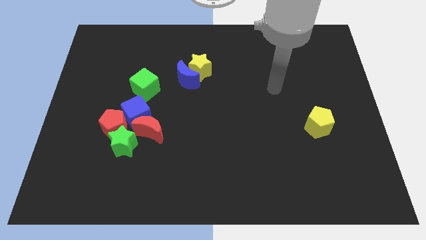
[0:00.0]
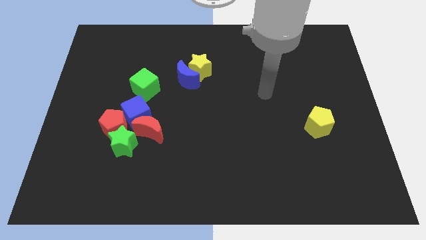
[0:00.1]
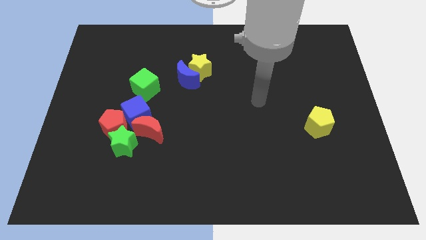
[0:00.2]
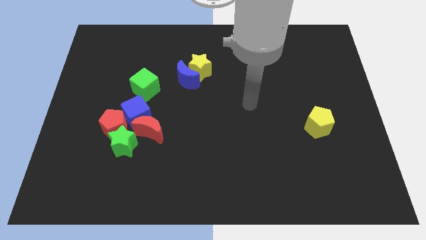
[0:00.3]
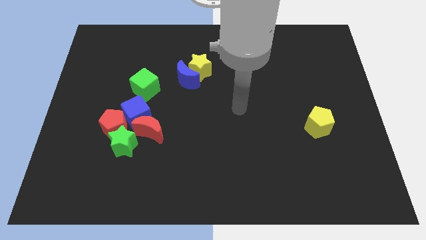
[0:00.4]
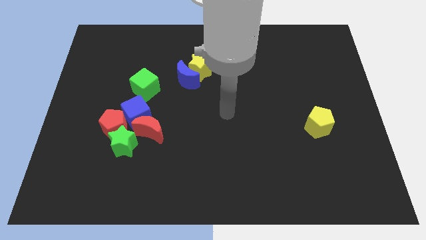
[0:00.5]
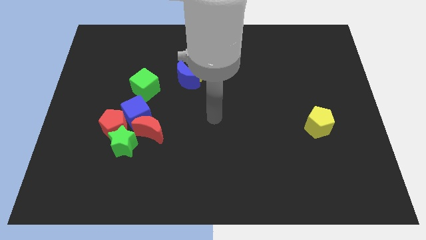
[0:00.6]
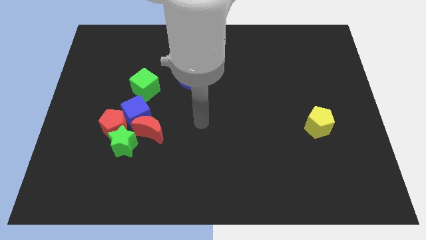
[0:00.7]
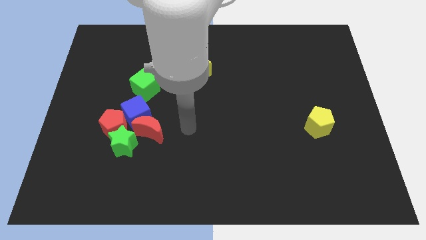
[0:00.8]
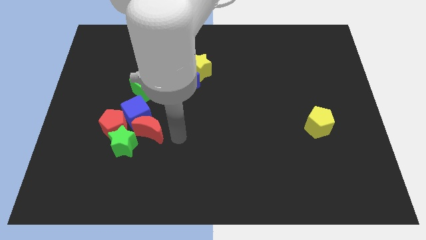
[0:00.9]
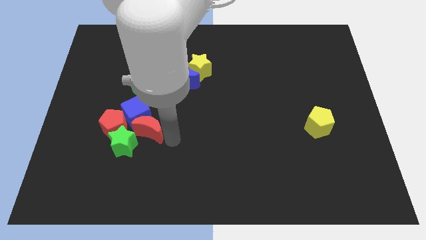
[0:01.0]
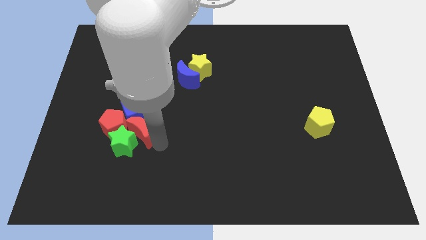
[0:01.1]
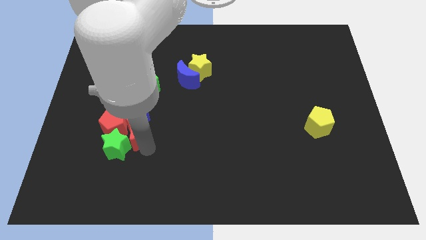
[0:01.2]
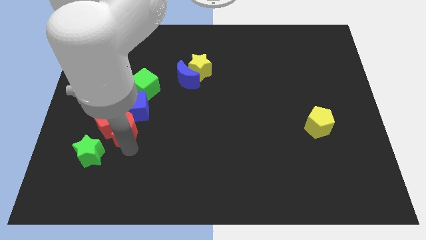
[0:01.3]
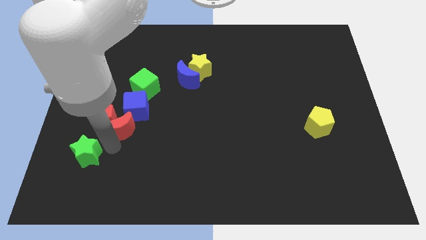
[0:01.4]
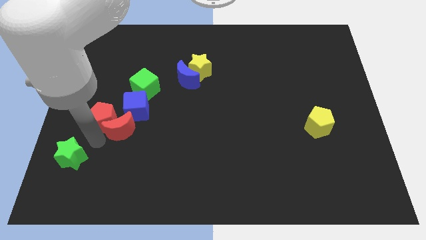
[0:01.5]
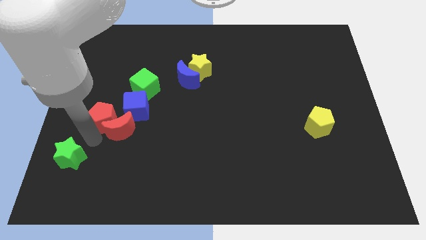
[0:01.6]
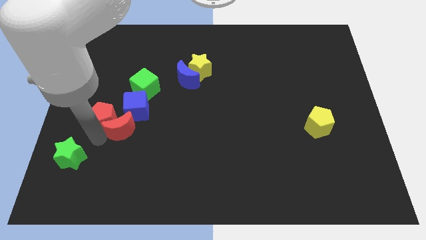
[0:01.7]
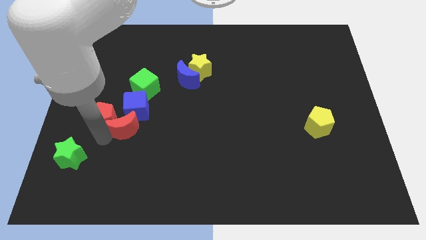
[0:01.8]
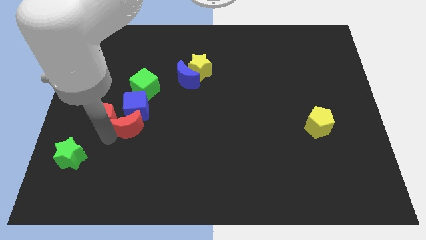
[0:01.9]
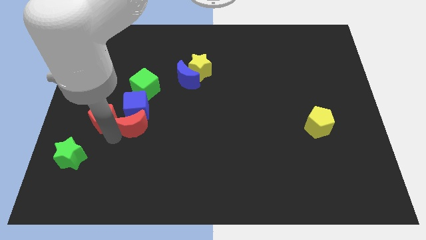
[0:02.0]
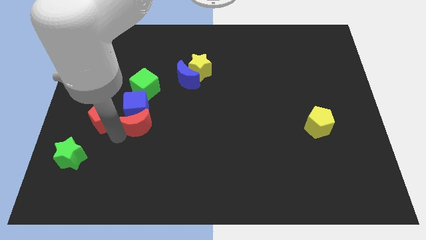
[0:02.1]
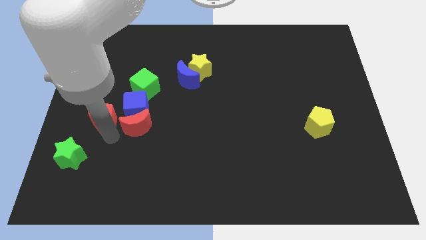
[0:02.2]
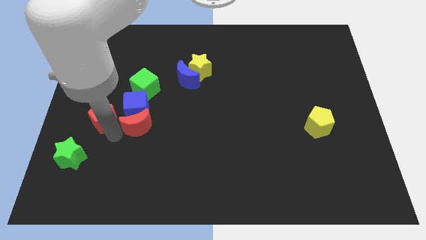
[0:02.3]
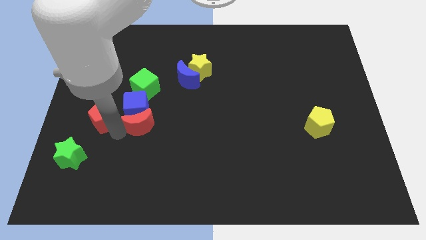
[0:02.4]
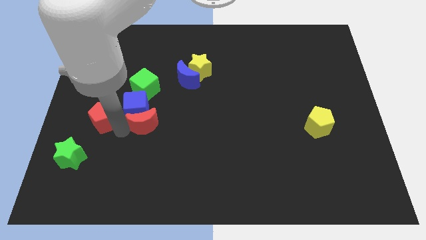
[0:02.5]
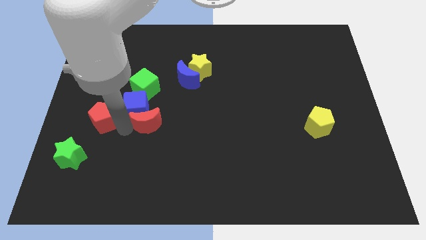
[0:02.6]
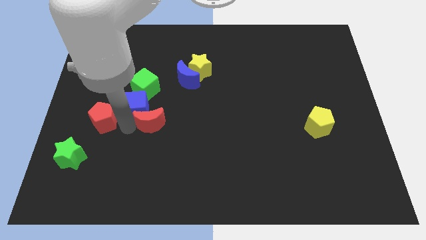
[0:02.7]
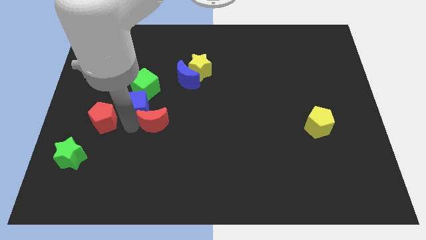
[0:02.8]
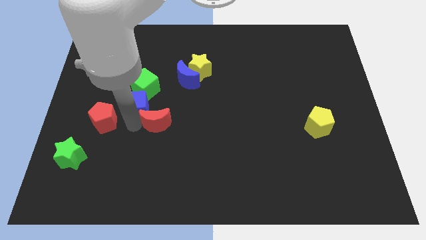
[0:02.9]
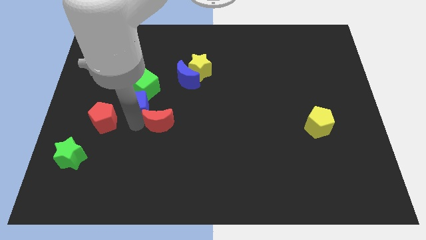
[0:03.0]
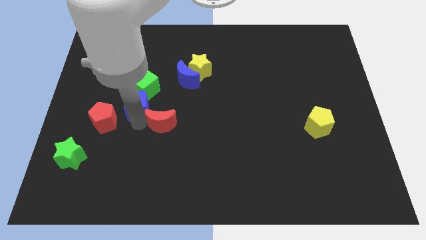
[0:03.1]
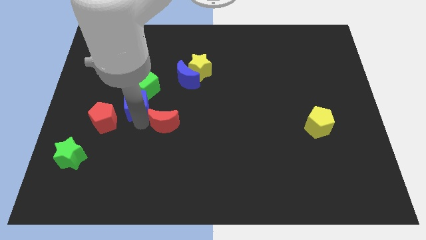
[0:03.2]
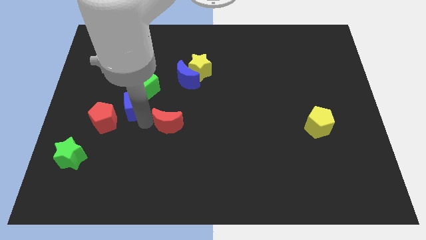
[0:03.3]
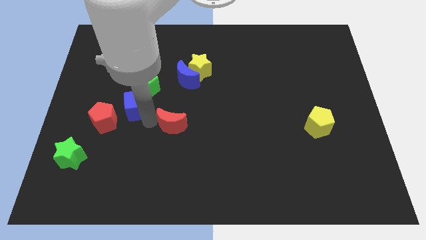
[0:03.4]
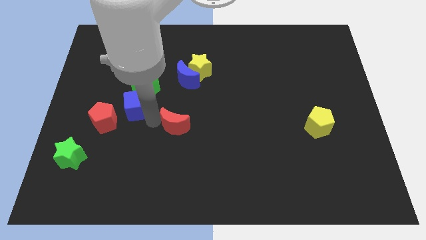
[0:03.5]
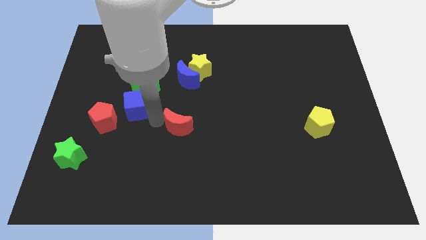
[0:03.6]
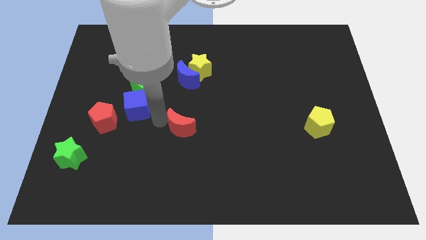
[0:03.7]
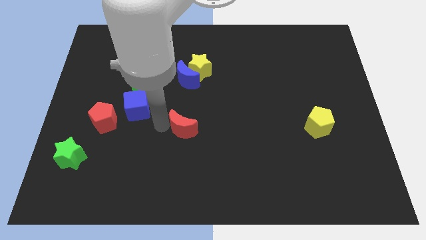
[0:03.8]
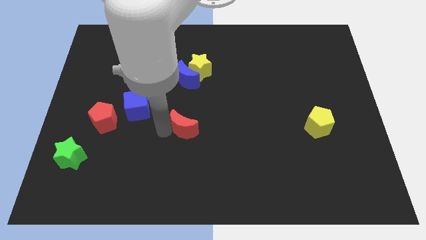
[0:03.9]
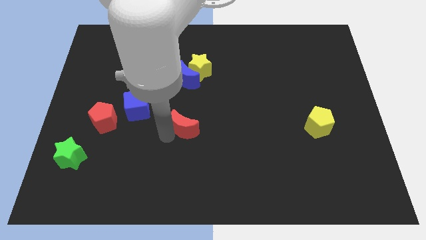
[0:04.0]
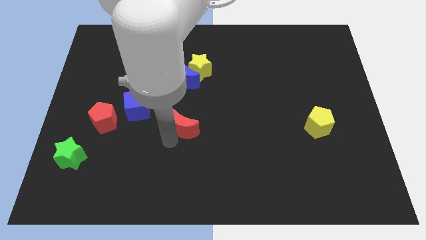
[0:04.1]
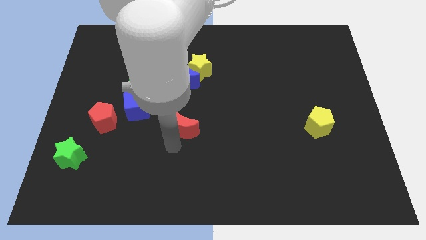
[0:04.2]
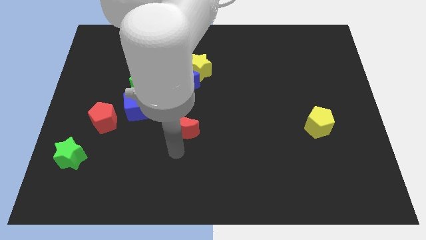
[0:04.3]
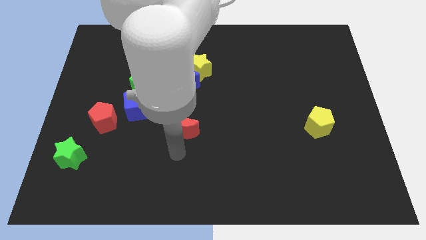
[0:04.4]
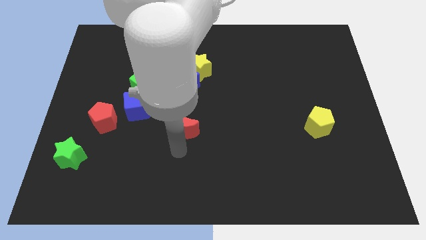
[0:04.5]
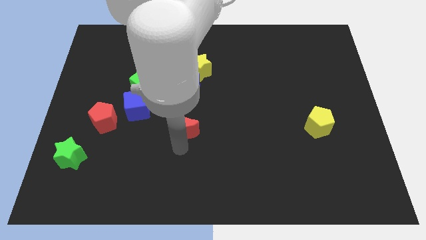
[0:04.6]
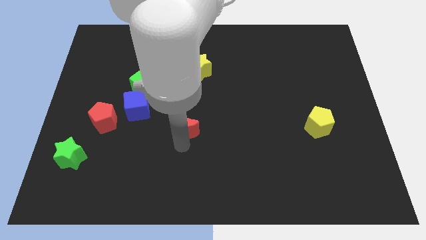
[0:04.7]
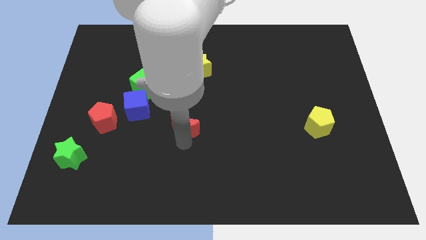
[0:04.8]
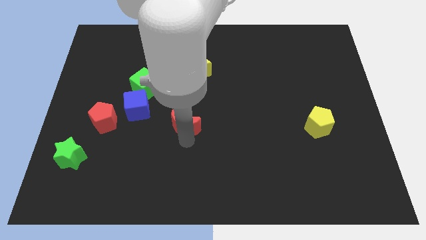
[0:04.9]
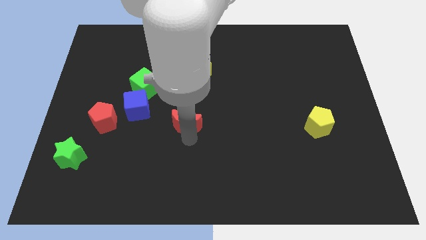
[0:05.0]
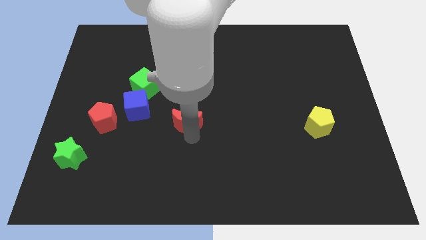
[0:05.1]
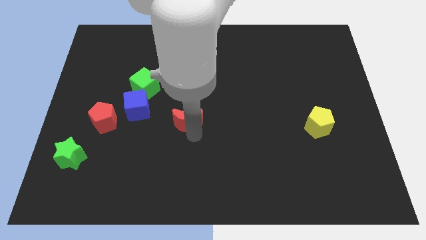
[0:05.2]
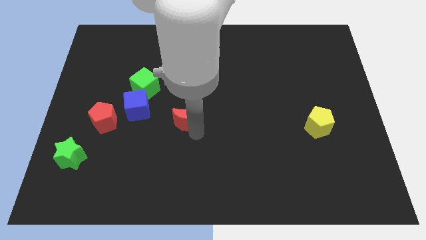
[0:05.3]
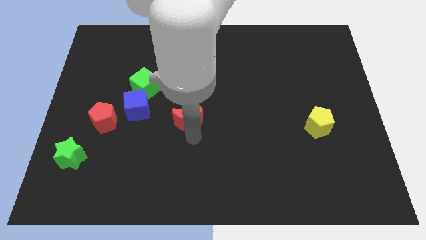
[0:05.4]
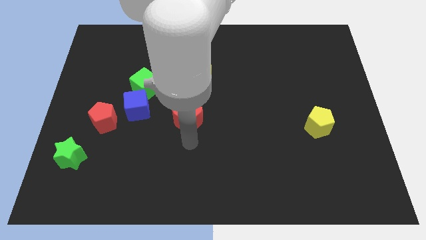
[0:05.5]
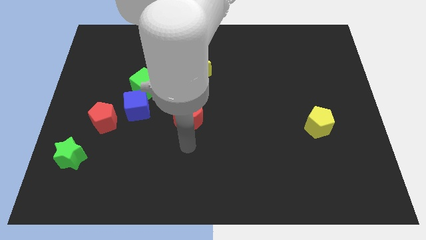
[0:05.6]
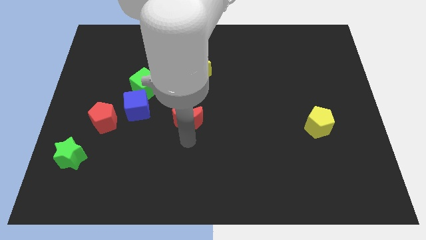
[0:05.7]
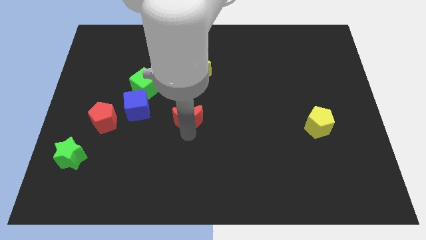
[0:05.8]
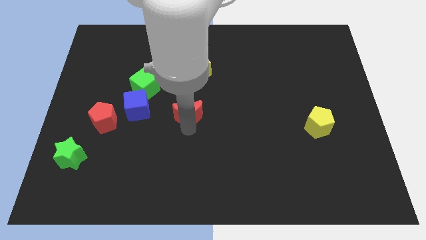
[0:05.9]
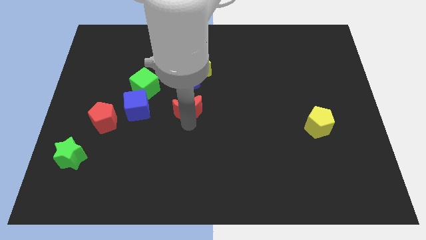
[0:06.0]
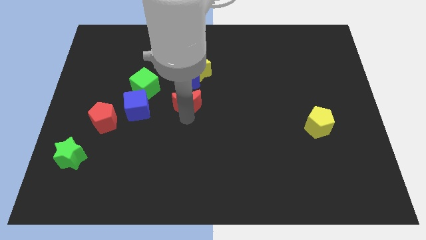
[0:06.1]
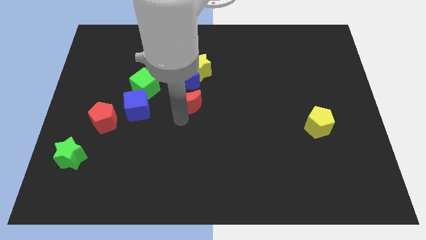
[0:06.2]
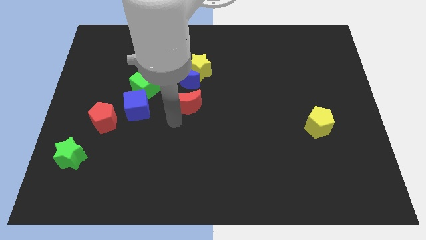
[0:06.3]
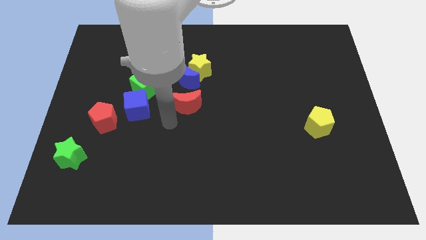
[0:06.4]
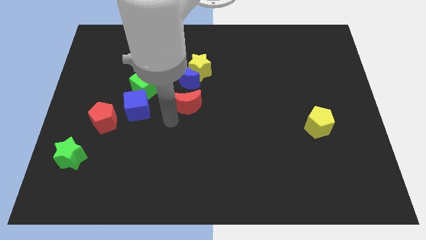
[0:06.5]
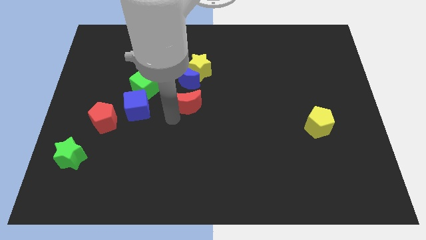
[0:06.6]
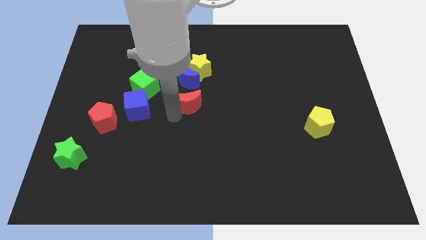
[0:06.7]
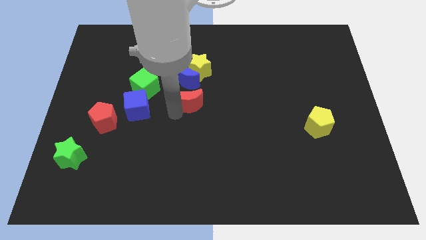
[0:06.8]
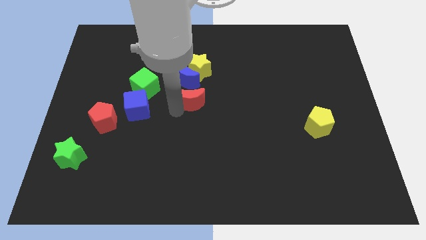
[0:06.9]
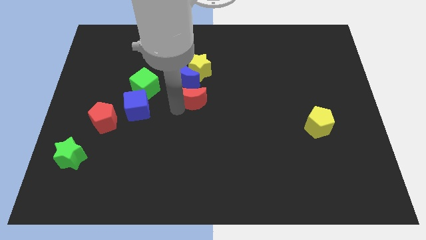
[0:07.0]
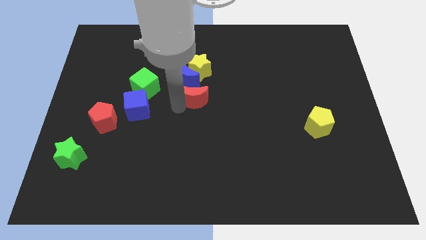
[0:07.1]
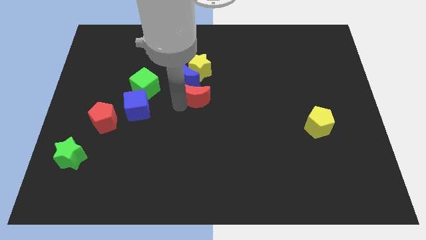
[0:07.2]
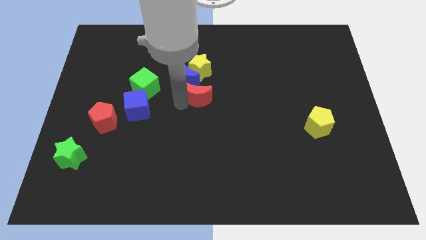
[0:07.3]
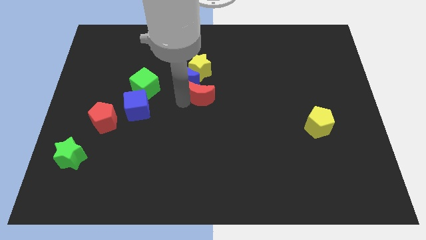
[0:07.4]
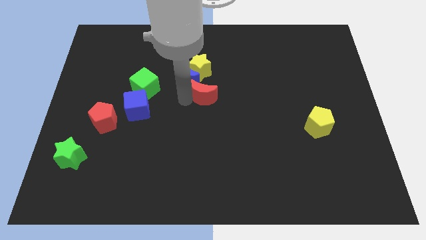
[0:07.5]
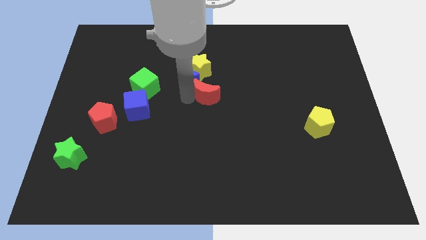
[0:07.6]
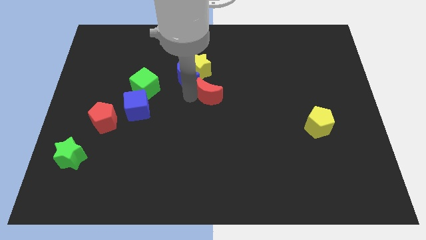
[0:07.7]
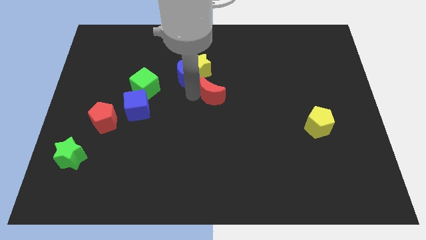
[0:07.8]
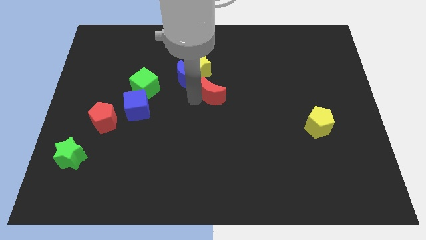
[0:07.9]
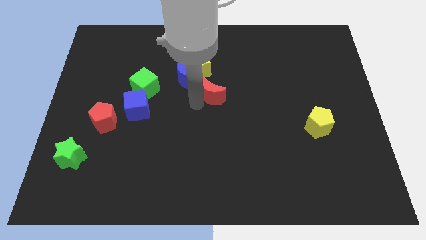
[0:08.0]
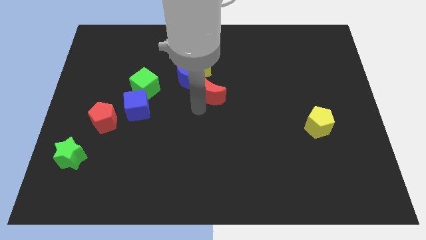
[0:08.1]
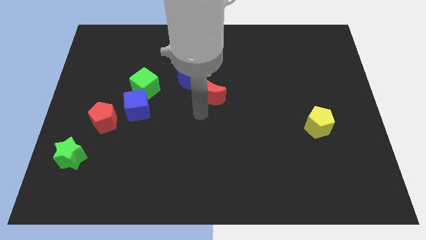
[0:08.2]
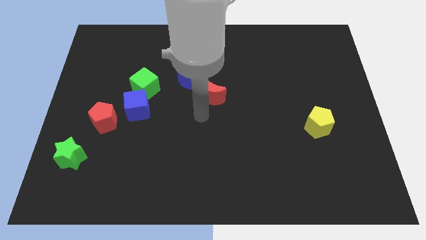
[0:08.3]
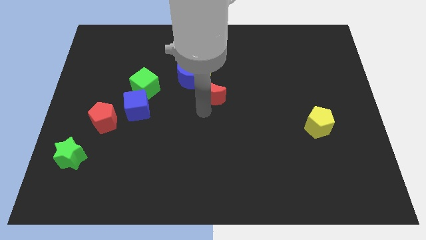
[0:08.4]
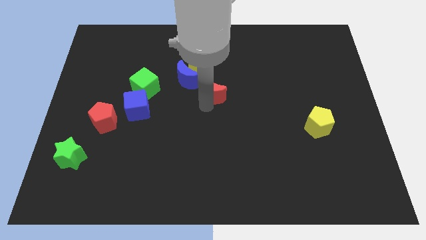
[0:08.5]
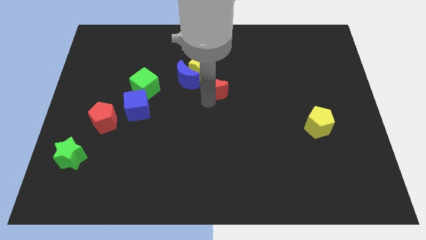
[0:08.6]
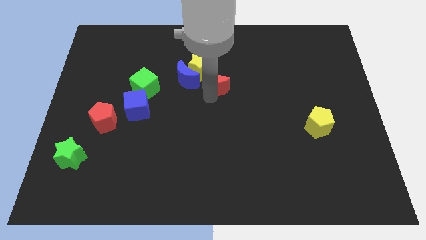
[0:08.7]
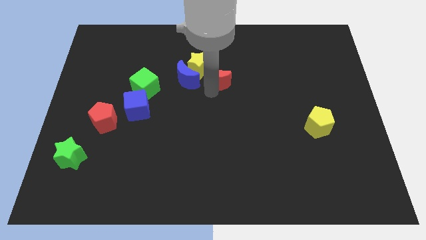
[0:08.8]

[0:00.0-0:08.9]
slide the red moon up and to the right diagonally
